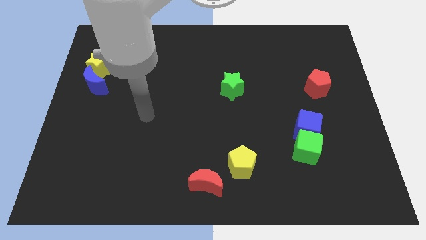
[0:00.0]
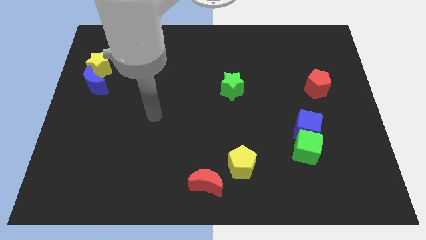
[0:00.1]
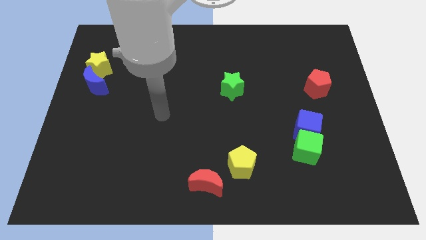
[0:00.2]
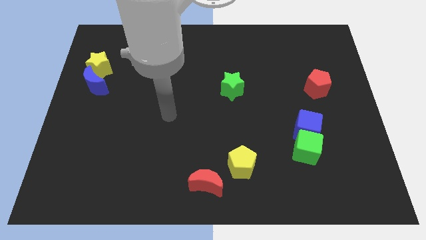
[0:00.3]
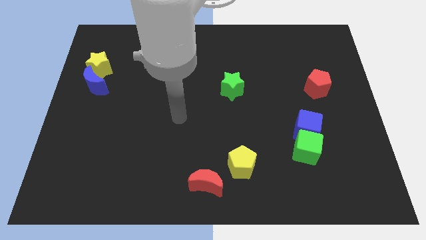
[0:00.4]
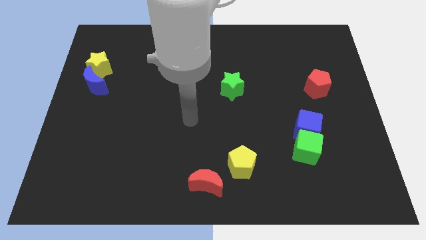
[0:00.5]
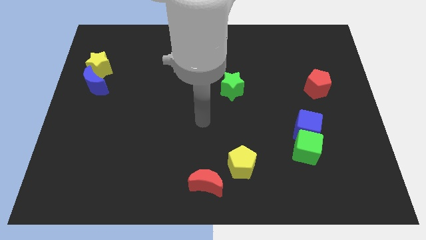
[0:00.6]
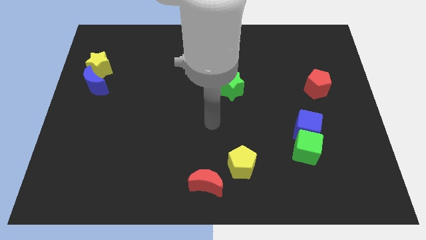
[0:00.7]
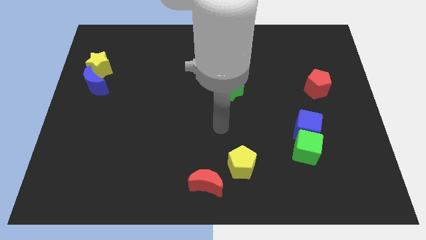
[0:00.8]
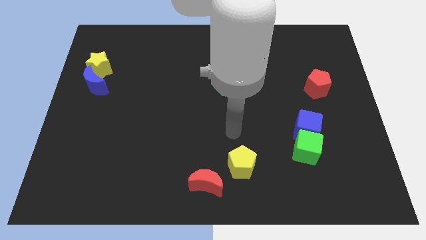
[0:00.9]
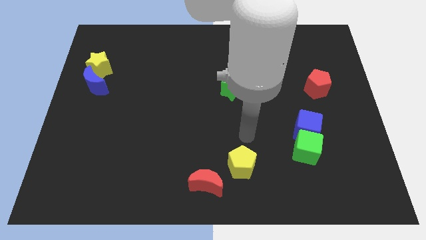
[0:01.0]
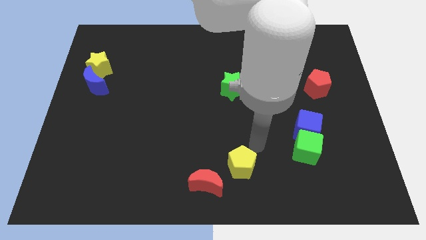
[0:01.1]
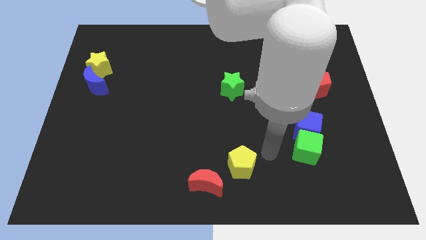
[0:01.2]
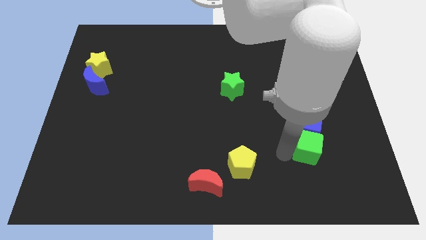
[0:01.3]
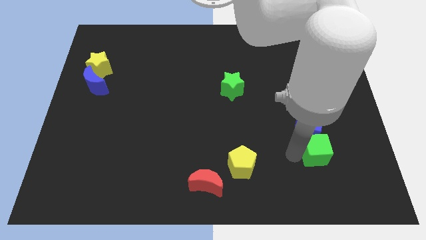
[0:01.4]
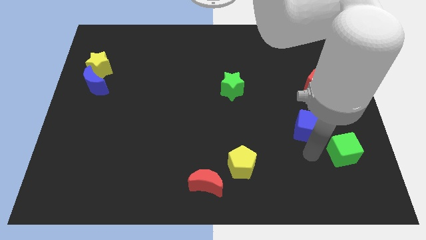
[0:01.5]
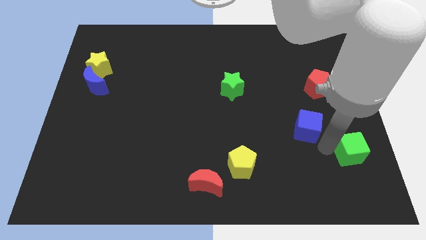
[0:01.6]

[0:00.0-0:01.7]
separate the blue cube from the green cube

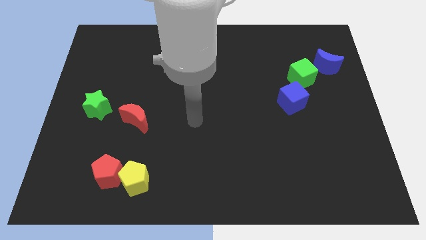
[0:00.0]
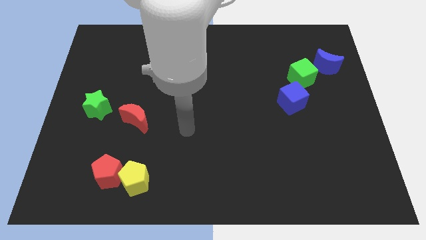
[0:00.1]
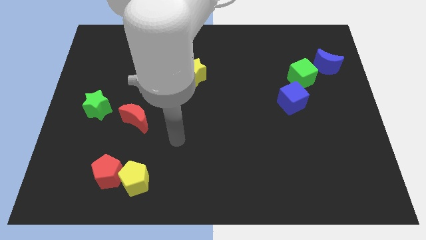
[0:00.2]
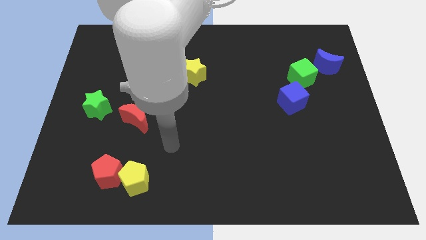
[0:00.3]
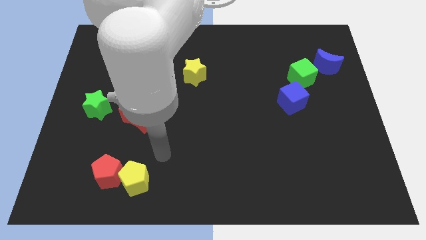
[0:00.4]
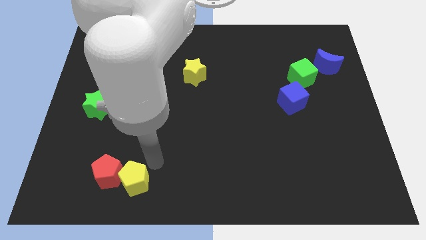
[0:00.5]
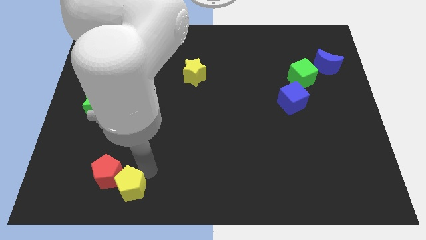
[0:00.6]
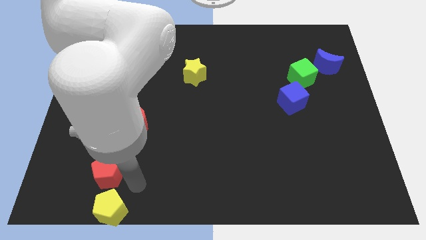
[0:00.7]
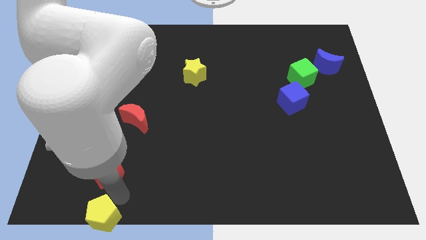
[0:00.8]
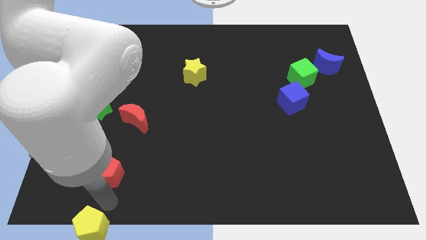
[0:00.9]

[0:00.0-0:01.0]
pull the red pentagon apart from the yellow pentagon

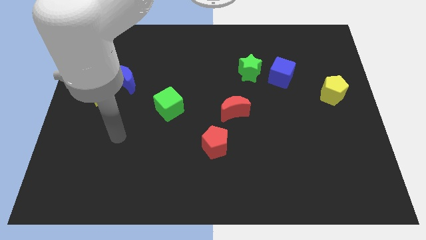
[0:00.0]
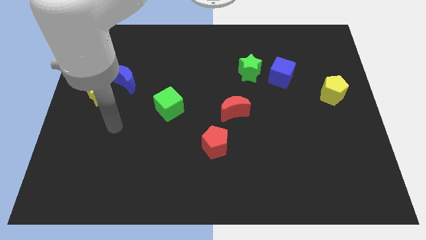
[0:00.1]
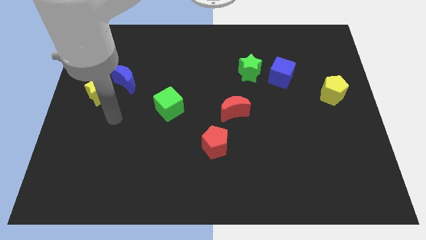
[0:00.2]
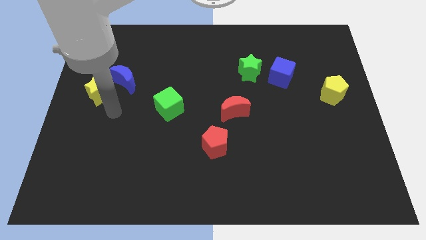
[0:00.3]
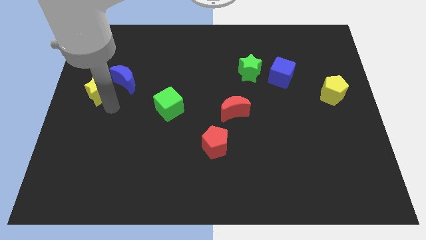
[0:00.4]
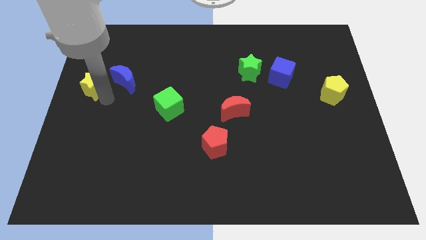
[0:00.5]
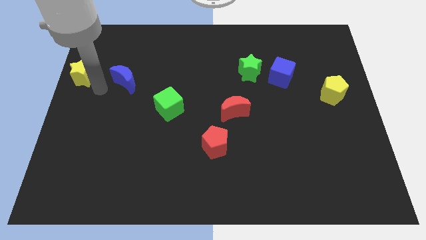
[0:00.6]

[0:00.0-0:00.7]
separate the blue moon from the yellow star

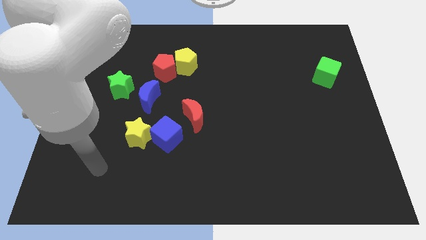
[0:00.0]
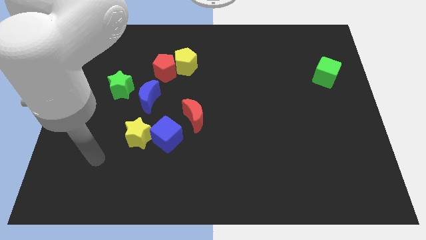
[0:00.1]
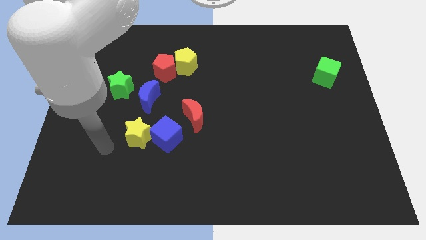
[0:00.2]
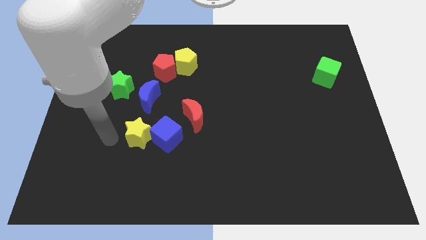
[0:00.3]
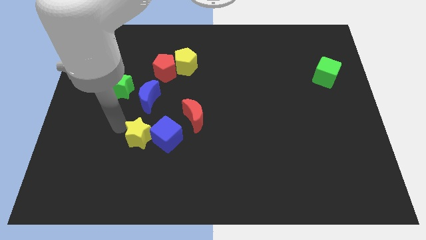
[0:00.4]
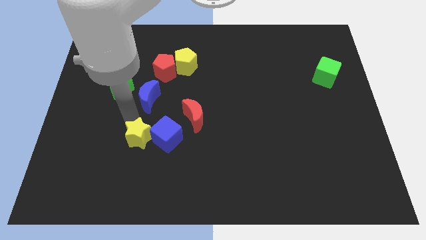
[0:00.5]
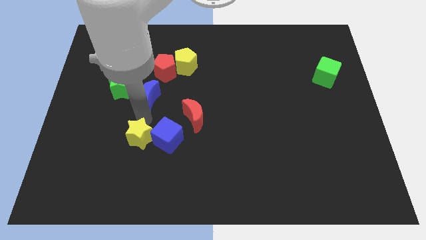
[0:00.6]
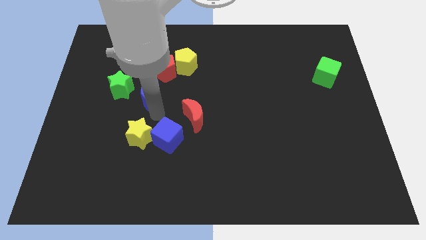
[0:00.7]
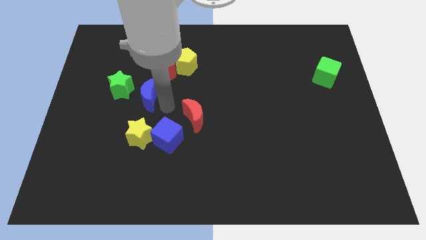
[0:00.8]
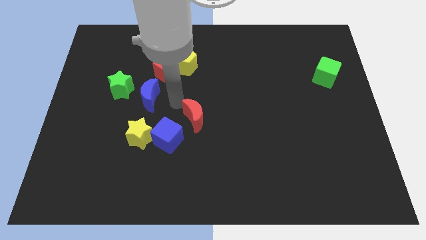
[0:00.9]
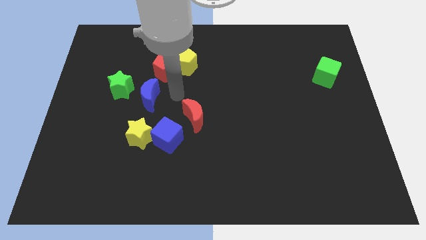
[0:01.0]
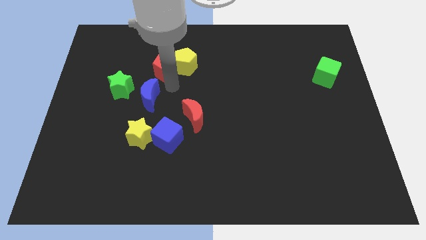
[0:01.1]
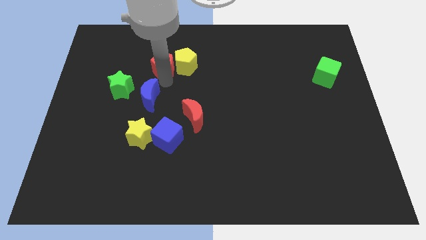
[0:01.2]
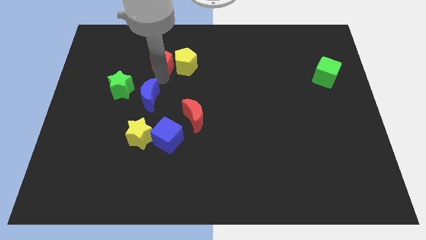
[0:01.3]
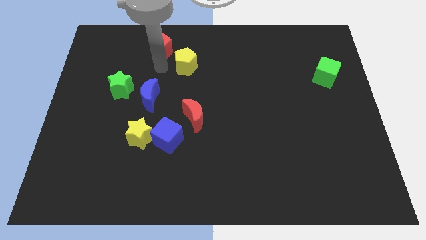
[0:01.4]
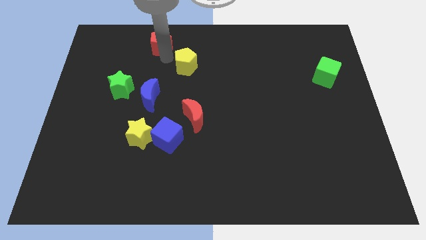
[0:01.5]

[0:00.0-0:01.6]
move the yellow pentagon away from the red pentagon

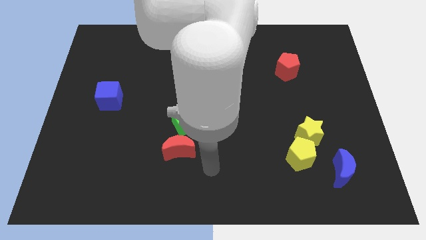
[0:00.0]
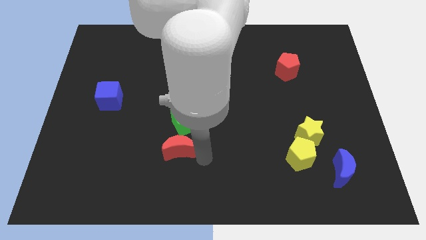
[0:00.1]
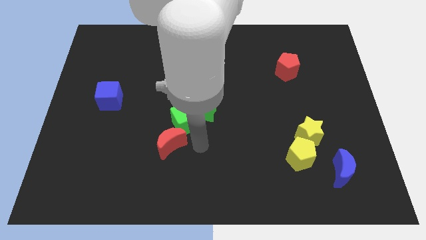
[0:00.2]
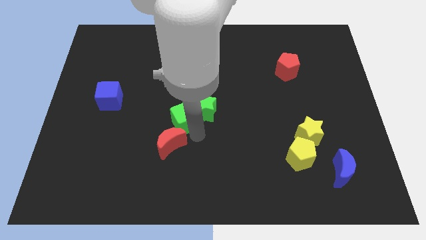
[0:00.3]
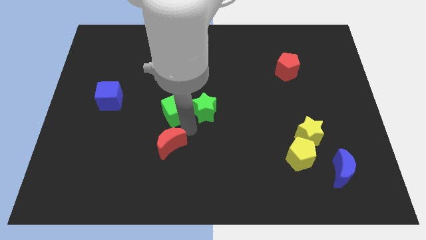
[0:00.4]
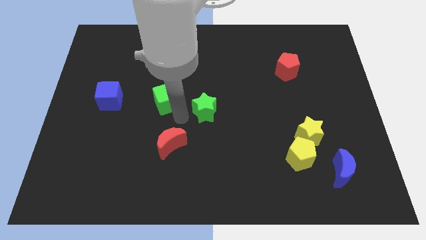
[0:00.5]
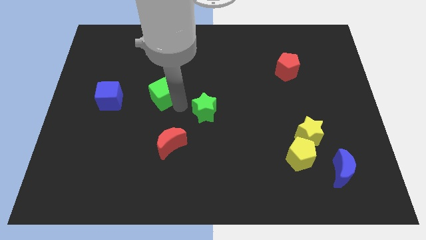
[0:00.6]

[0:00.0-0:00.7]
pull the green star apart from the green cube

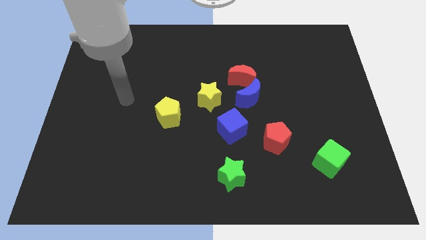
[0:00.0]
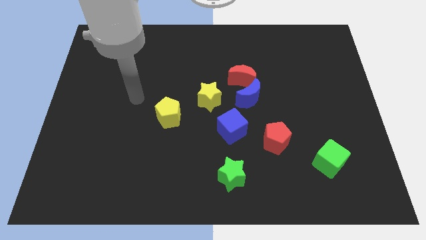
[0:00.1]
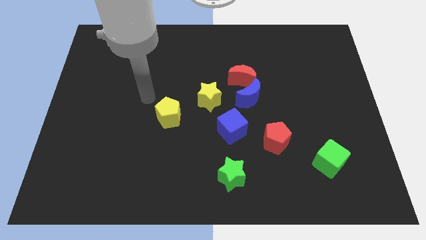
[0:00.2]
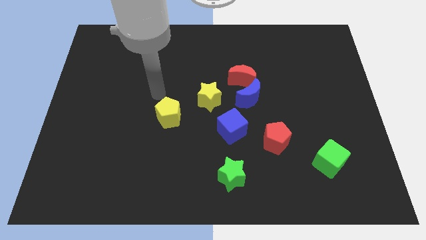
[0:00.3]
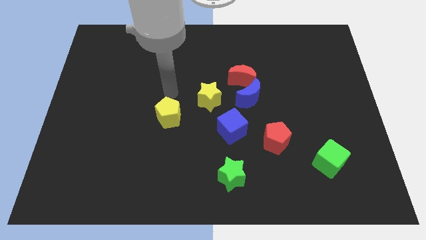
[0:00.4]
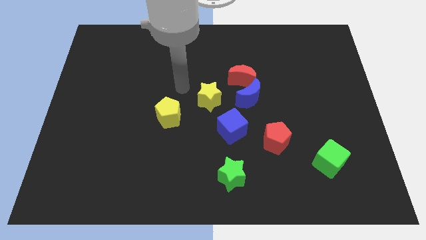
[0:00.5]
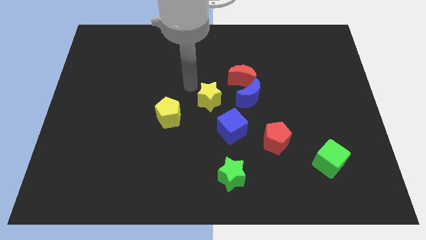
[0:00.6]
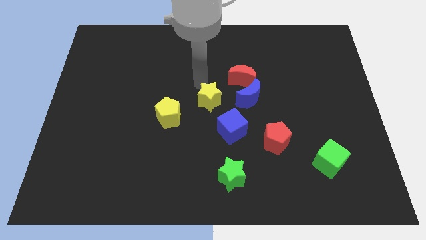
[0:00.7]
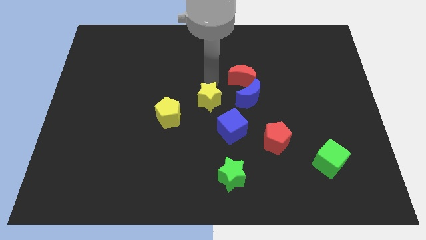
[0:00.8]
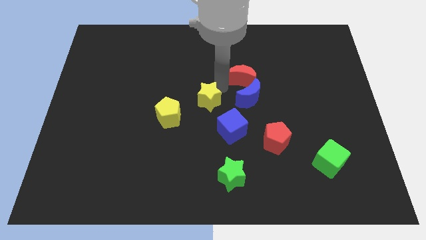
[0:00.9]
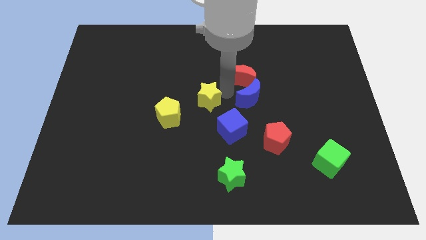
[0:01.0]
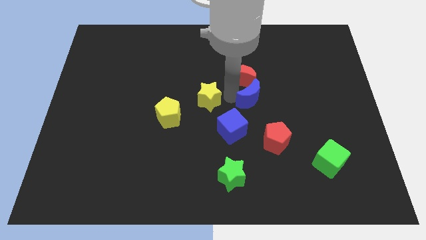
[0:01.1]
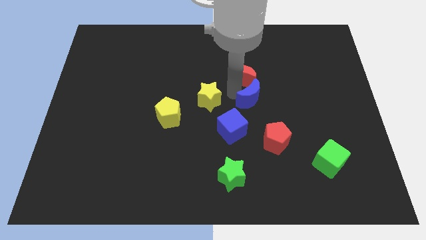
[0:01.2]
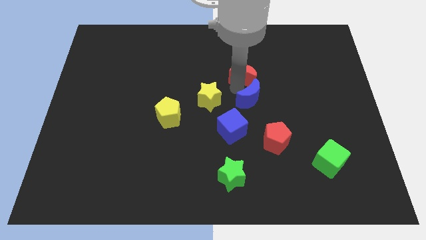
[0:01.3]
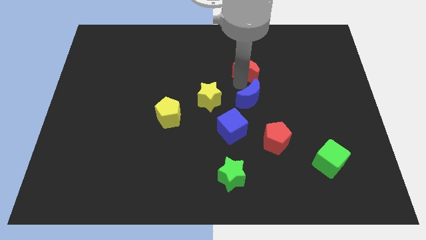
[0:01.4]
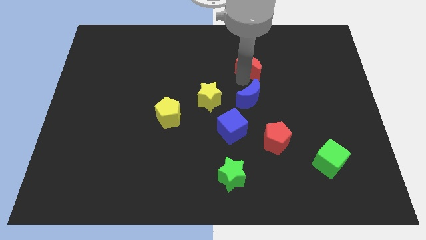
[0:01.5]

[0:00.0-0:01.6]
move the red moon away from the blue moon and yellow star

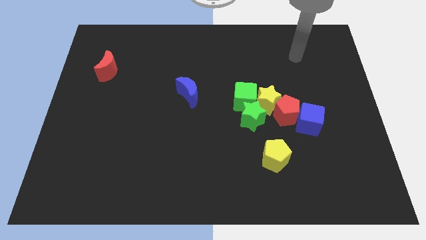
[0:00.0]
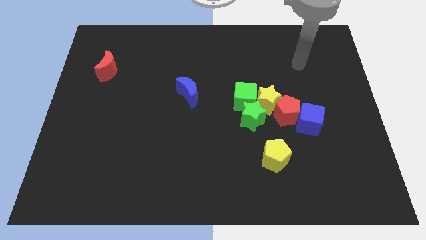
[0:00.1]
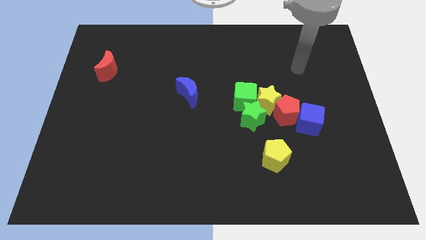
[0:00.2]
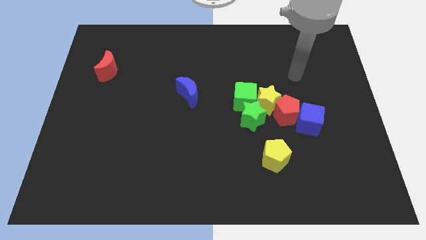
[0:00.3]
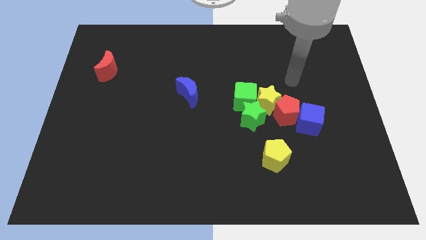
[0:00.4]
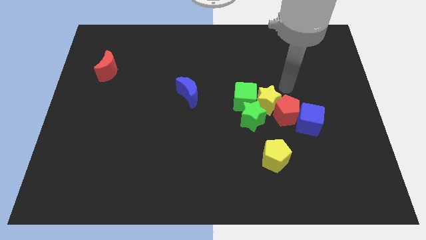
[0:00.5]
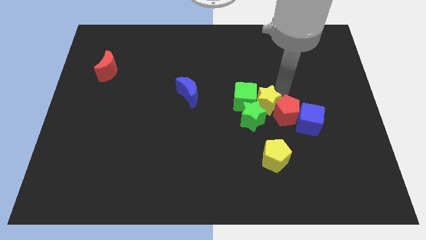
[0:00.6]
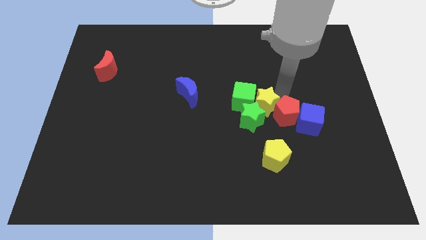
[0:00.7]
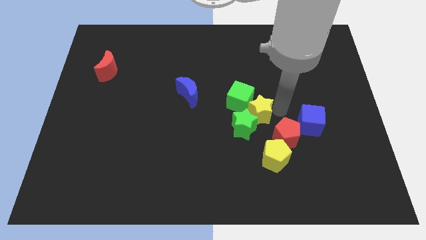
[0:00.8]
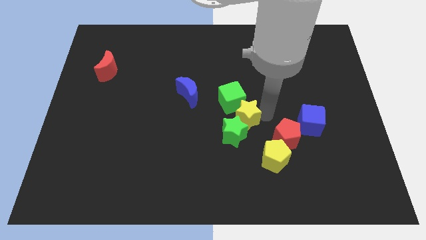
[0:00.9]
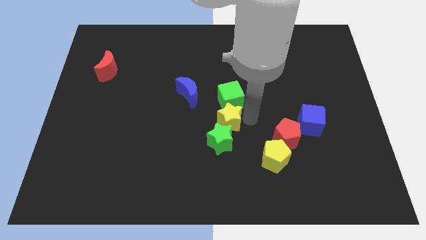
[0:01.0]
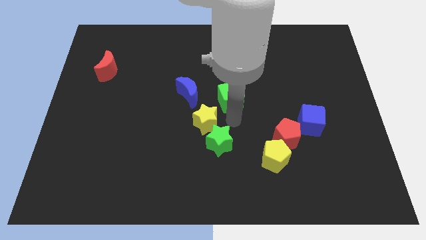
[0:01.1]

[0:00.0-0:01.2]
pull the green cube apart from the yellow star and green star

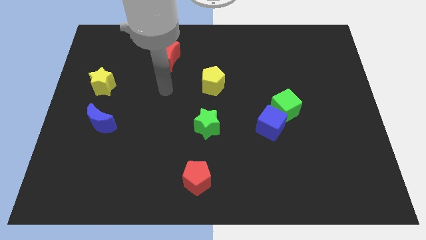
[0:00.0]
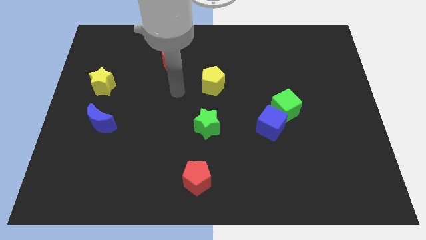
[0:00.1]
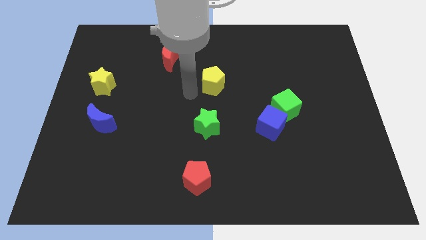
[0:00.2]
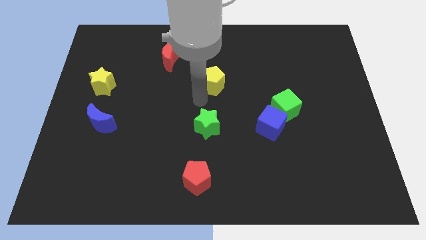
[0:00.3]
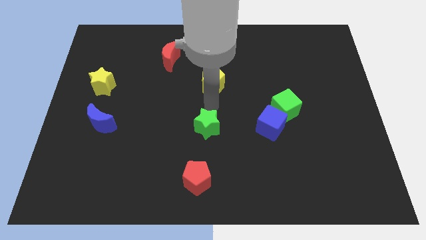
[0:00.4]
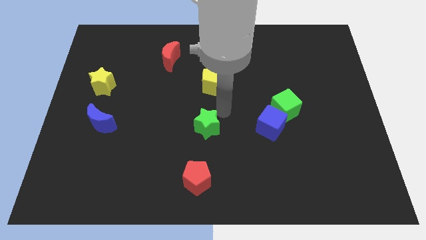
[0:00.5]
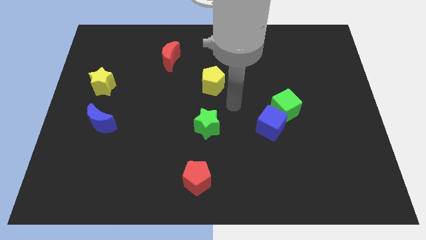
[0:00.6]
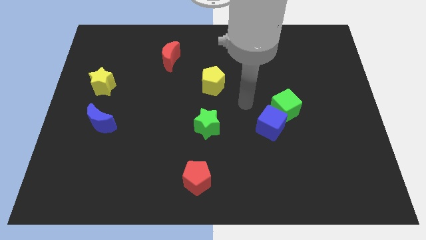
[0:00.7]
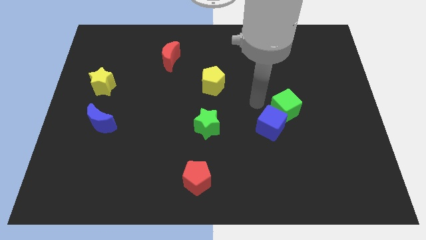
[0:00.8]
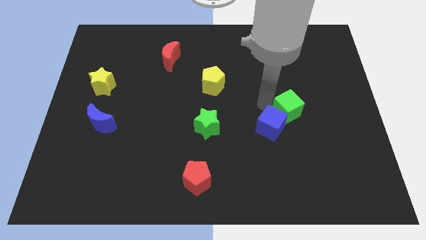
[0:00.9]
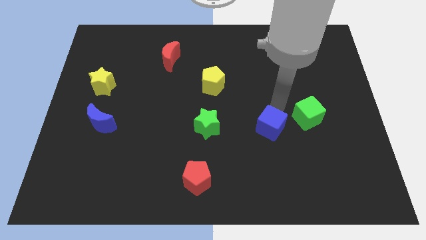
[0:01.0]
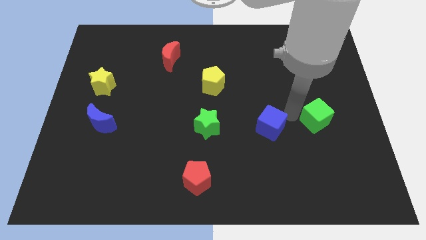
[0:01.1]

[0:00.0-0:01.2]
move the blue cube away from the green cube
